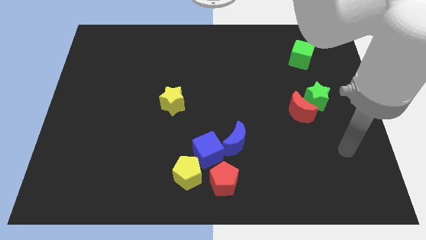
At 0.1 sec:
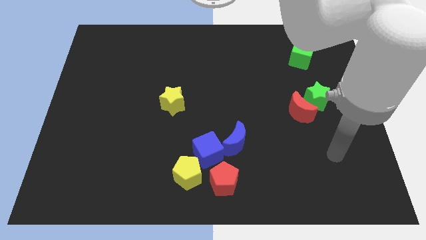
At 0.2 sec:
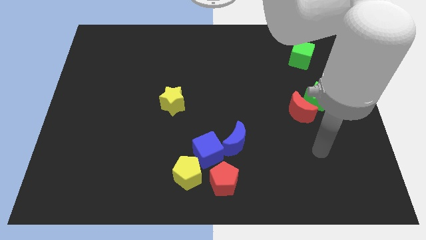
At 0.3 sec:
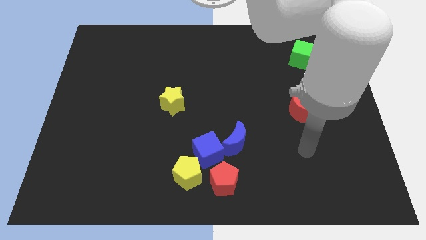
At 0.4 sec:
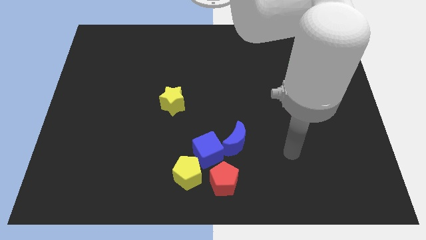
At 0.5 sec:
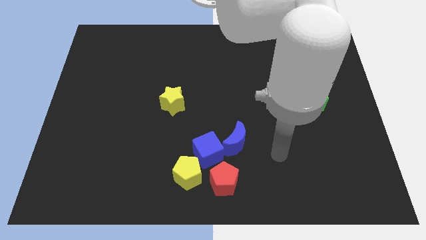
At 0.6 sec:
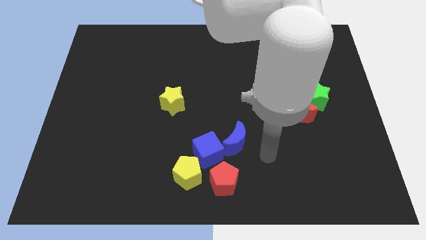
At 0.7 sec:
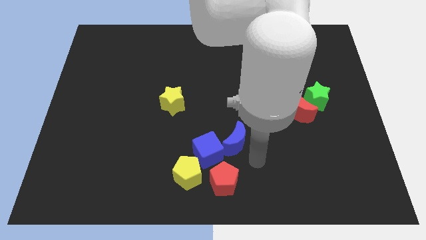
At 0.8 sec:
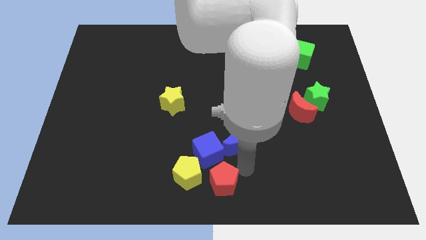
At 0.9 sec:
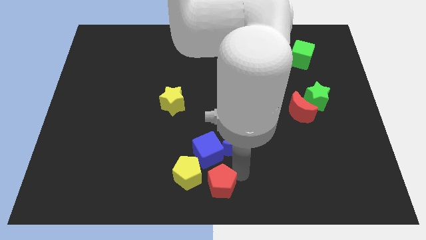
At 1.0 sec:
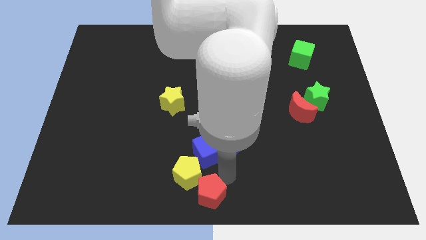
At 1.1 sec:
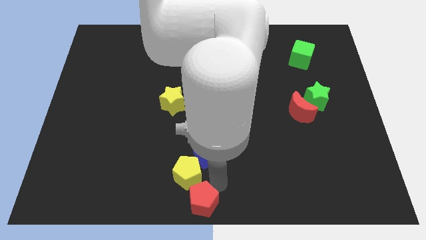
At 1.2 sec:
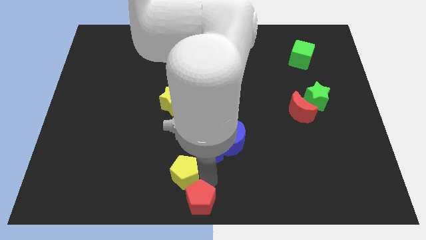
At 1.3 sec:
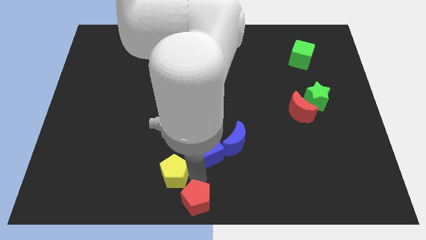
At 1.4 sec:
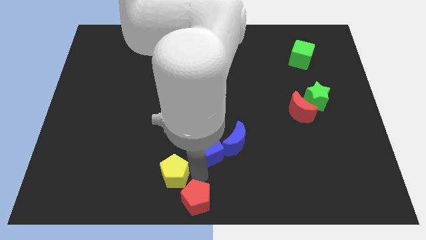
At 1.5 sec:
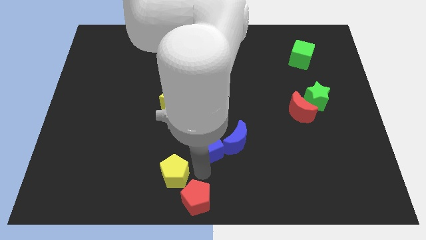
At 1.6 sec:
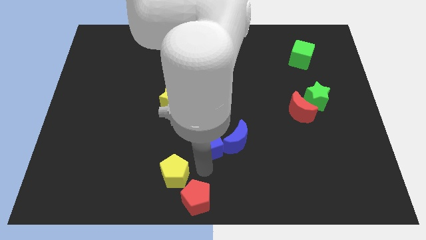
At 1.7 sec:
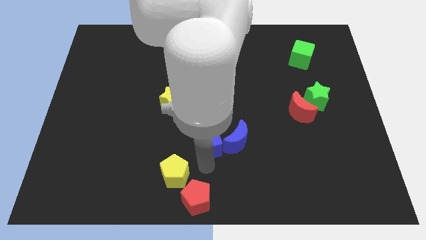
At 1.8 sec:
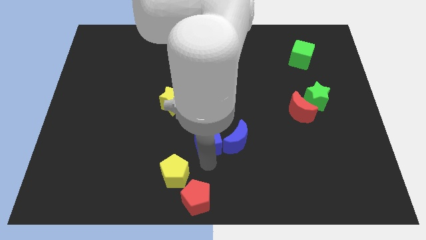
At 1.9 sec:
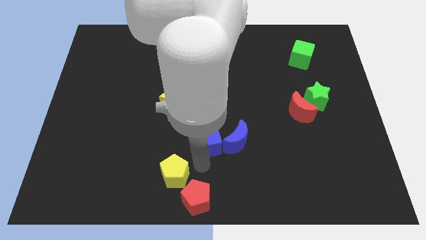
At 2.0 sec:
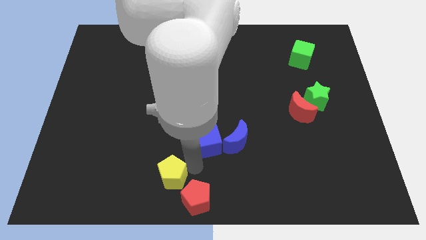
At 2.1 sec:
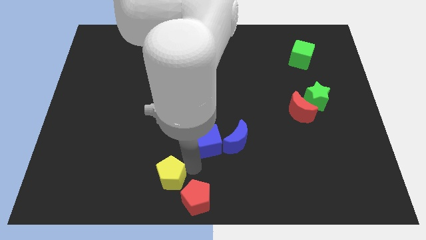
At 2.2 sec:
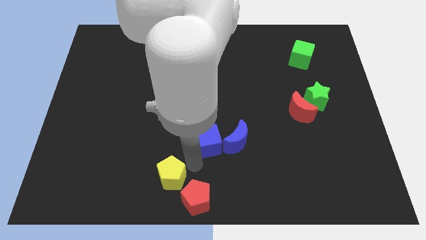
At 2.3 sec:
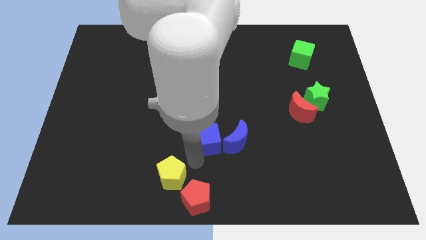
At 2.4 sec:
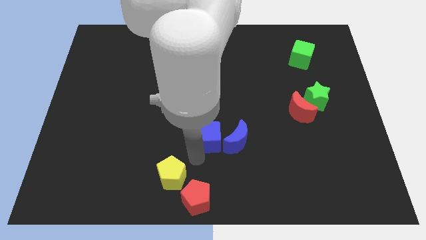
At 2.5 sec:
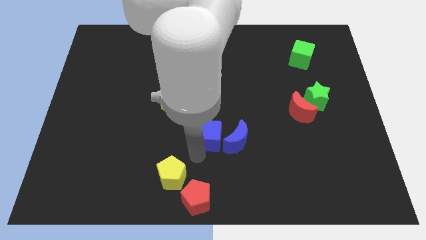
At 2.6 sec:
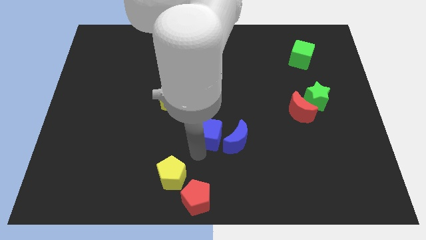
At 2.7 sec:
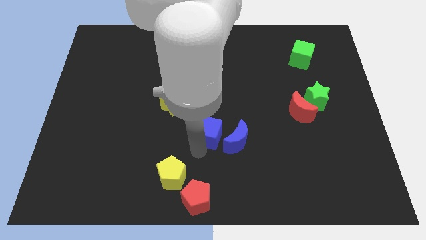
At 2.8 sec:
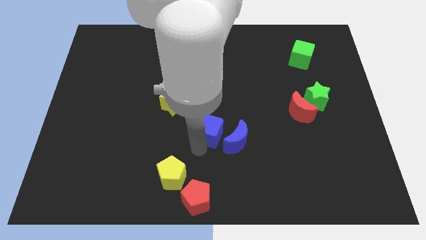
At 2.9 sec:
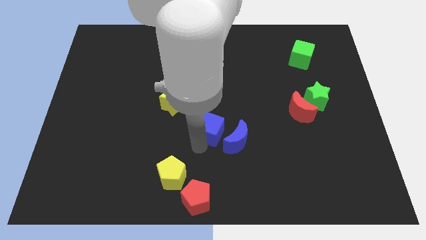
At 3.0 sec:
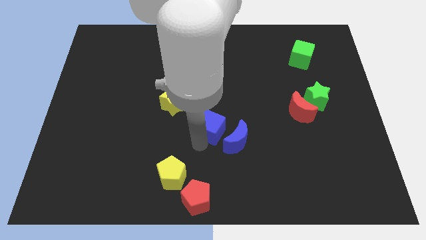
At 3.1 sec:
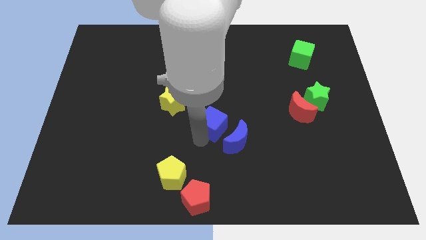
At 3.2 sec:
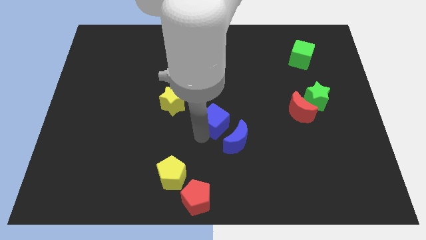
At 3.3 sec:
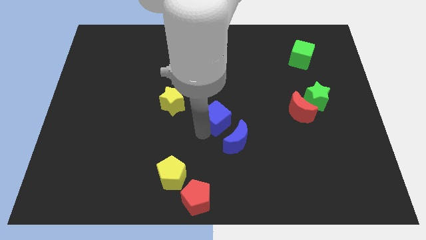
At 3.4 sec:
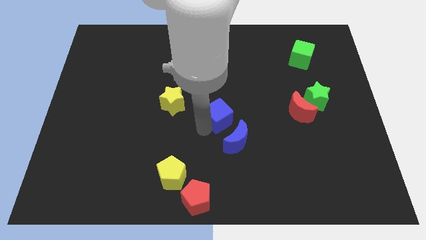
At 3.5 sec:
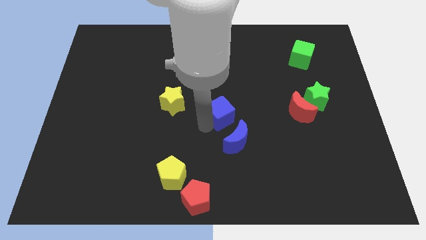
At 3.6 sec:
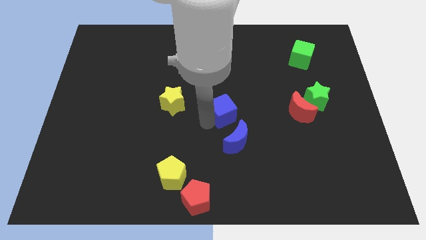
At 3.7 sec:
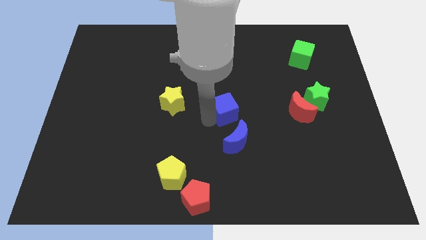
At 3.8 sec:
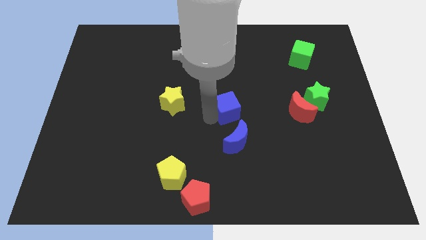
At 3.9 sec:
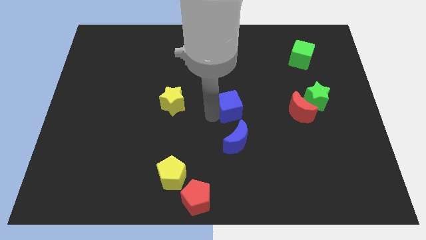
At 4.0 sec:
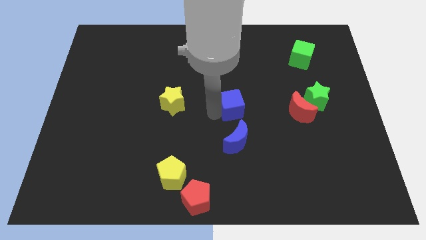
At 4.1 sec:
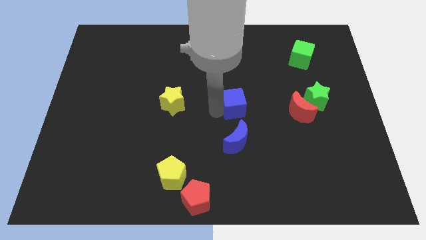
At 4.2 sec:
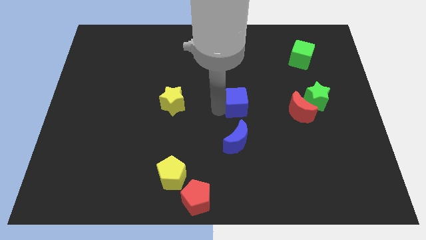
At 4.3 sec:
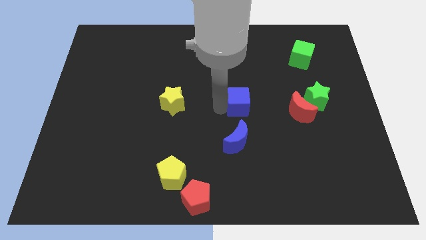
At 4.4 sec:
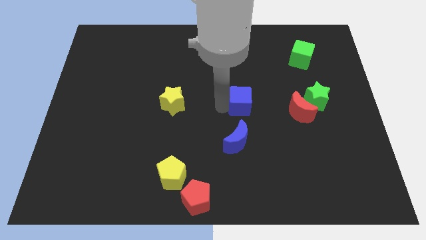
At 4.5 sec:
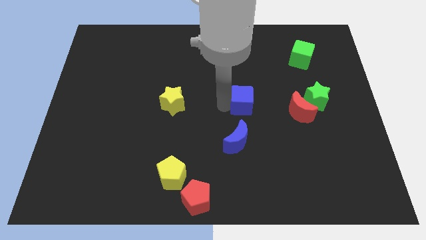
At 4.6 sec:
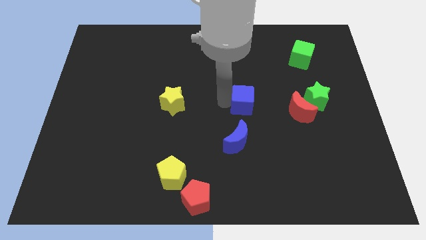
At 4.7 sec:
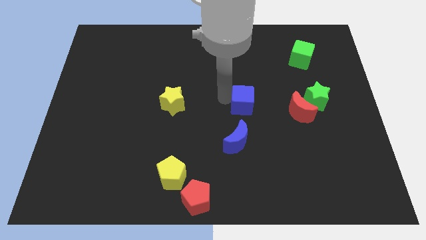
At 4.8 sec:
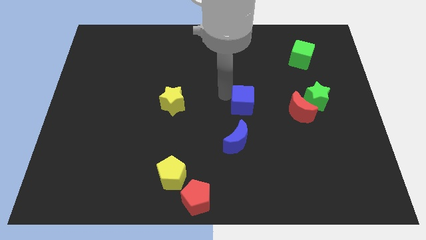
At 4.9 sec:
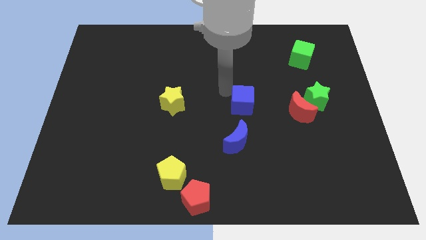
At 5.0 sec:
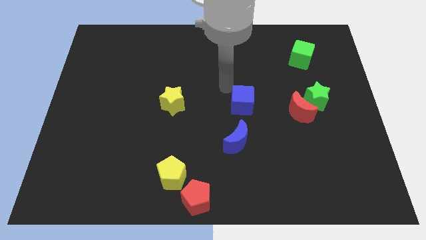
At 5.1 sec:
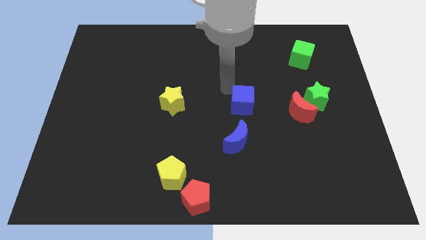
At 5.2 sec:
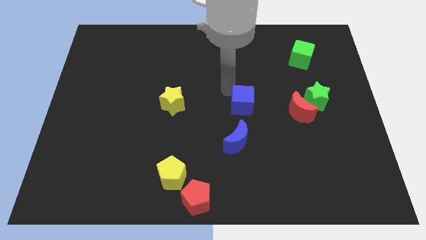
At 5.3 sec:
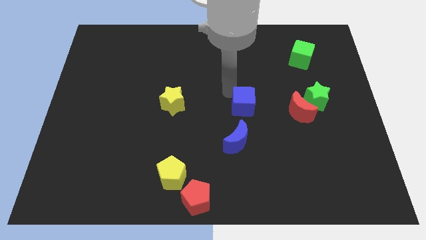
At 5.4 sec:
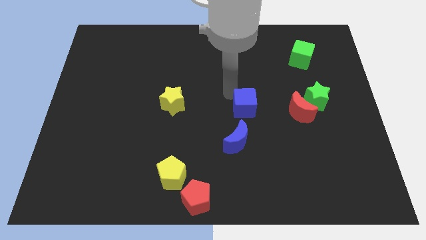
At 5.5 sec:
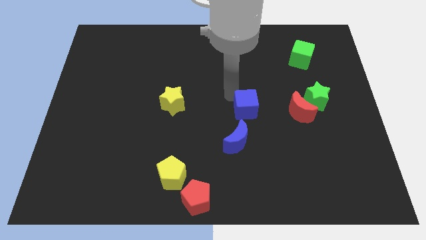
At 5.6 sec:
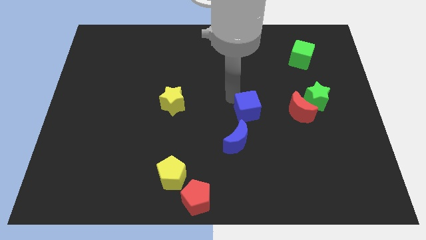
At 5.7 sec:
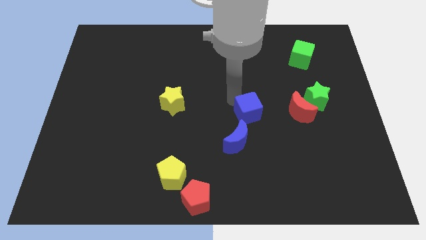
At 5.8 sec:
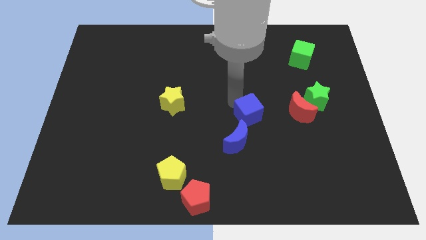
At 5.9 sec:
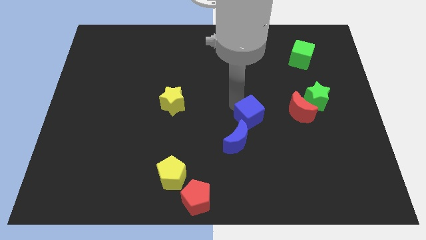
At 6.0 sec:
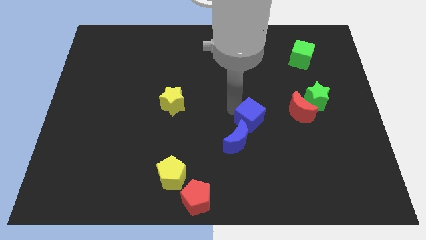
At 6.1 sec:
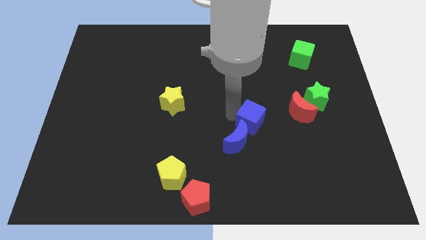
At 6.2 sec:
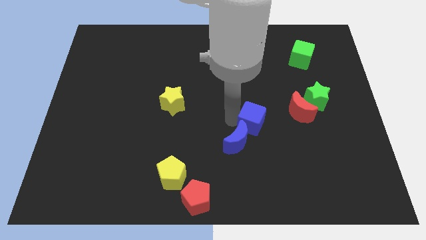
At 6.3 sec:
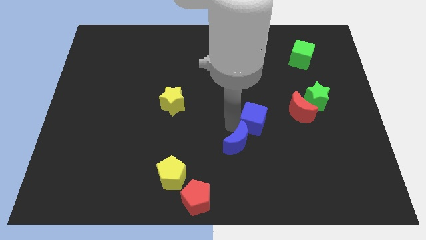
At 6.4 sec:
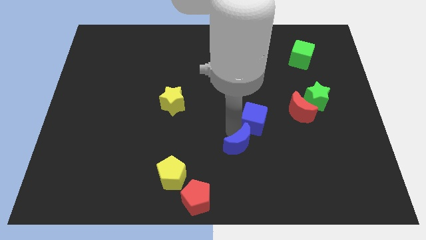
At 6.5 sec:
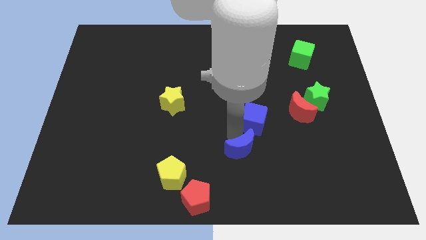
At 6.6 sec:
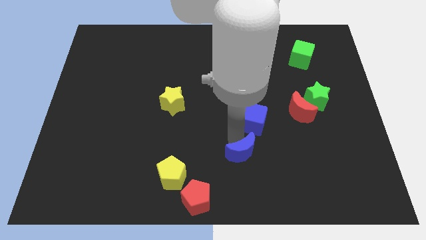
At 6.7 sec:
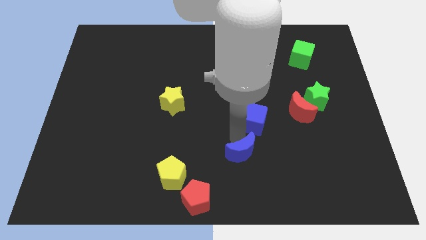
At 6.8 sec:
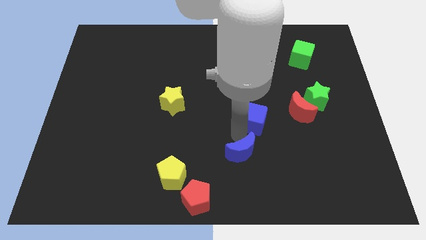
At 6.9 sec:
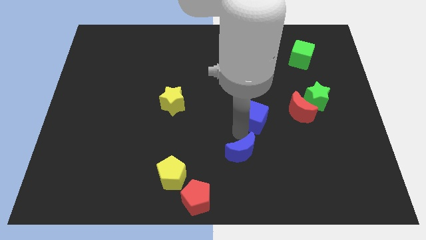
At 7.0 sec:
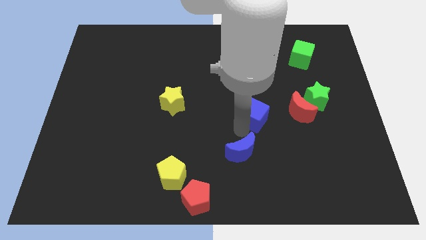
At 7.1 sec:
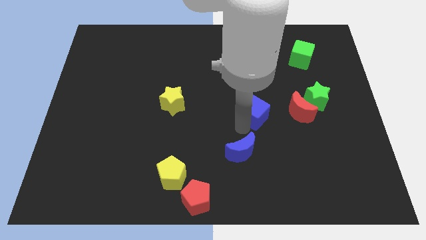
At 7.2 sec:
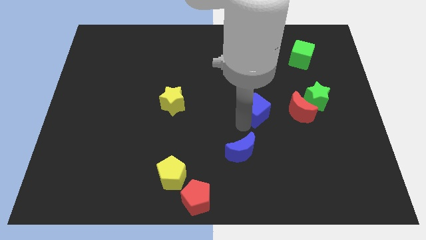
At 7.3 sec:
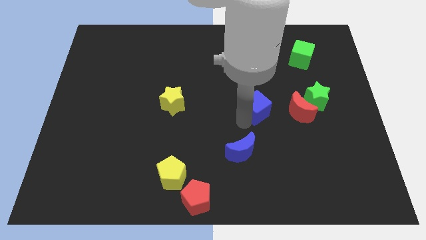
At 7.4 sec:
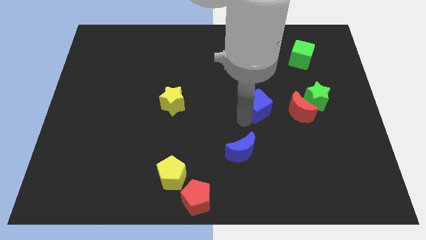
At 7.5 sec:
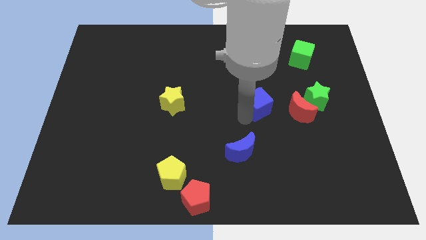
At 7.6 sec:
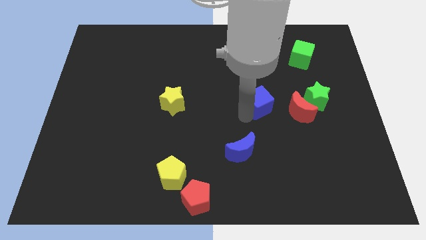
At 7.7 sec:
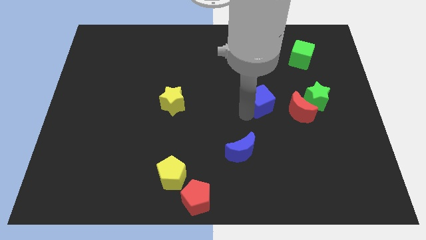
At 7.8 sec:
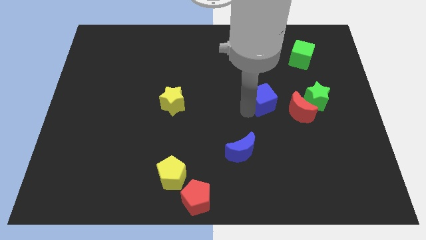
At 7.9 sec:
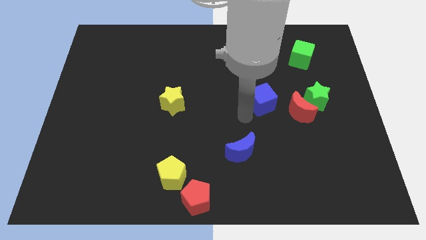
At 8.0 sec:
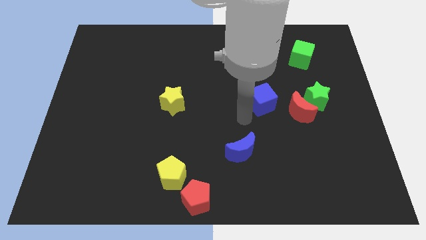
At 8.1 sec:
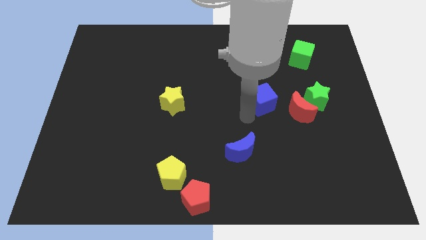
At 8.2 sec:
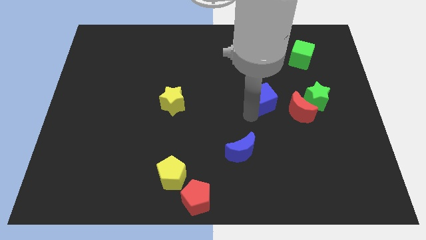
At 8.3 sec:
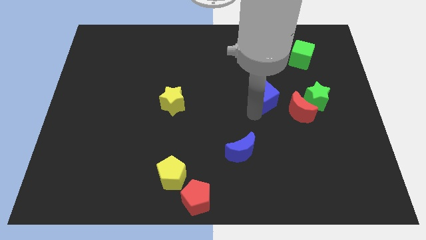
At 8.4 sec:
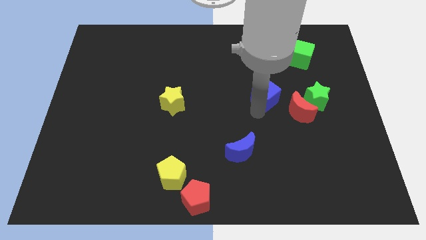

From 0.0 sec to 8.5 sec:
slide the blue cube up and right diagonally
